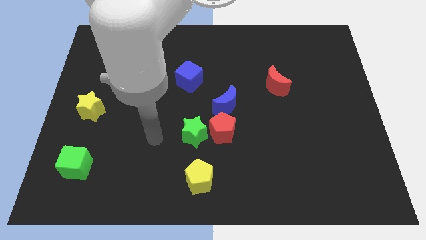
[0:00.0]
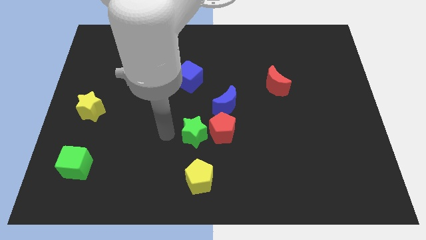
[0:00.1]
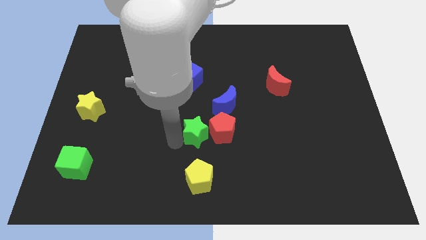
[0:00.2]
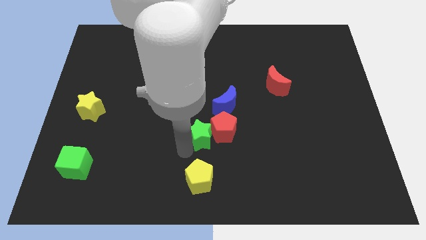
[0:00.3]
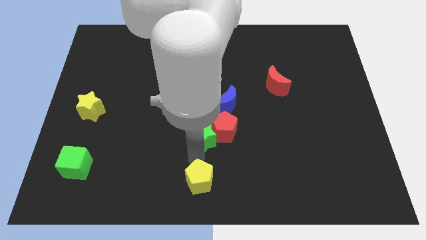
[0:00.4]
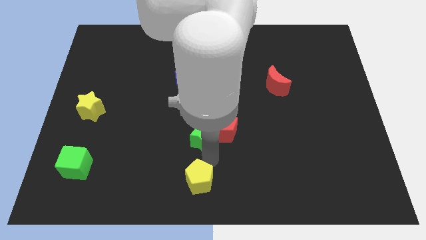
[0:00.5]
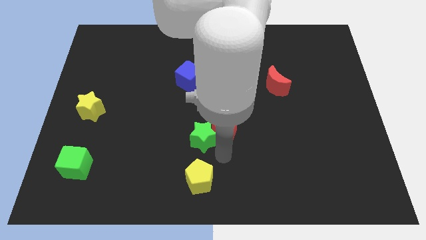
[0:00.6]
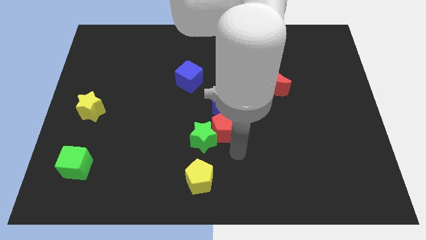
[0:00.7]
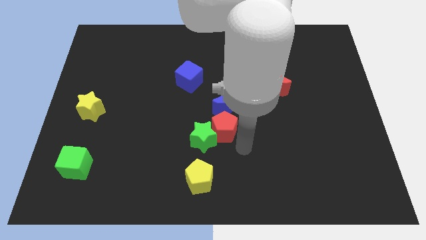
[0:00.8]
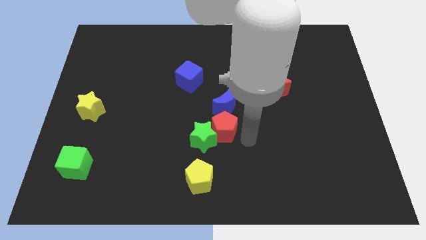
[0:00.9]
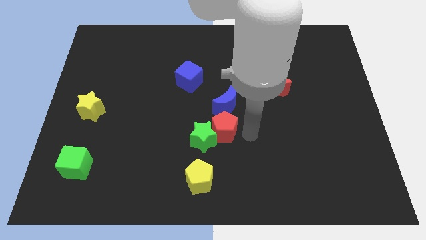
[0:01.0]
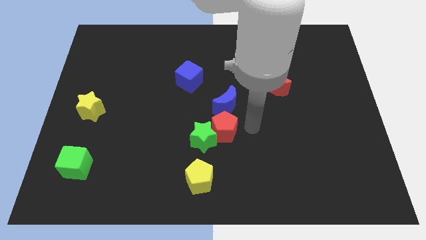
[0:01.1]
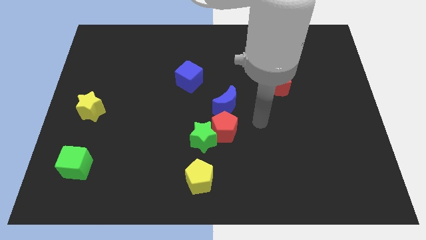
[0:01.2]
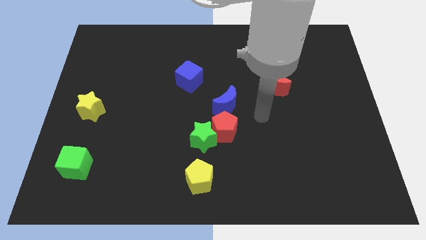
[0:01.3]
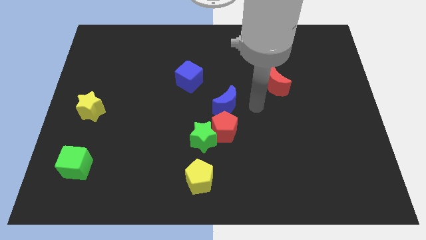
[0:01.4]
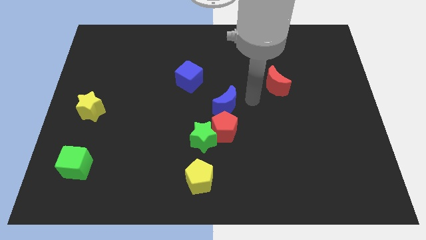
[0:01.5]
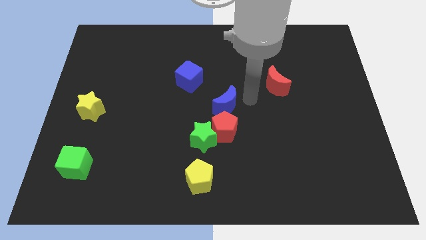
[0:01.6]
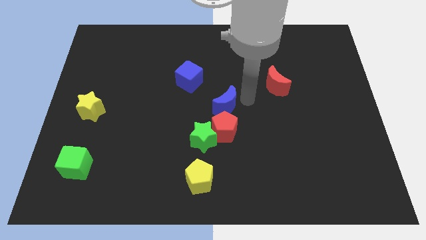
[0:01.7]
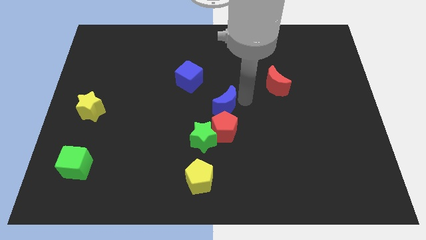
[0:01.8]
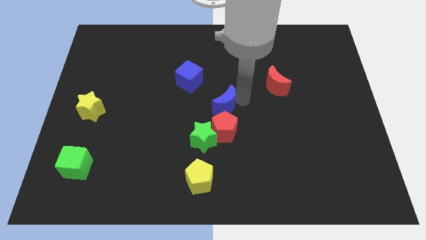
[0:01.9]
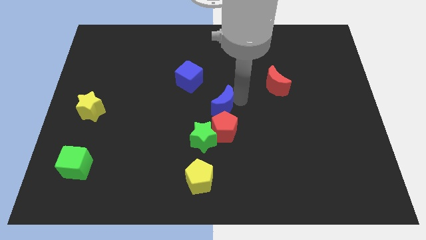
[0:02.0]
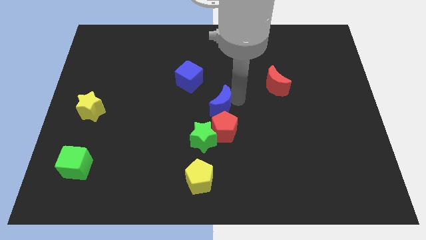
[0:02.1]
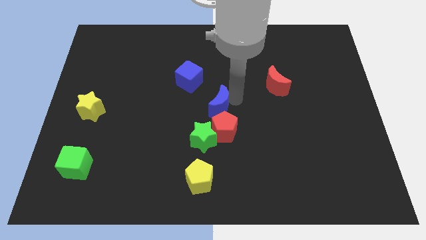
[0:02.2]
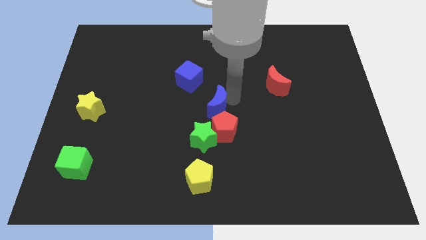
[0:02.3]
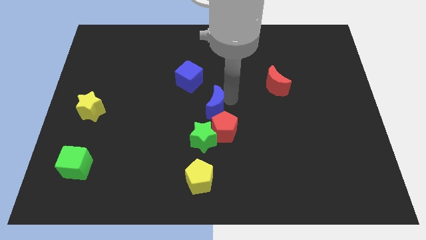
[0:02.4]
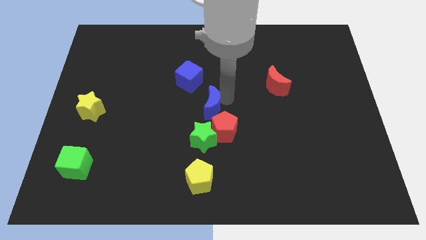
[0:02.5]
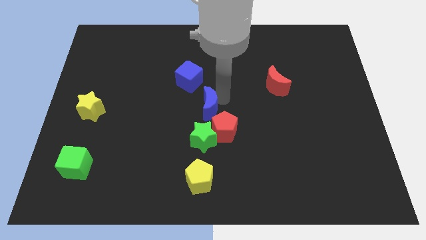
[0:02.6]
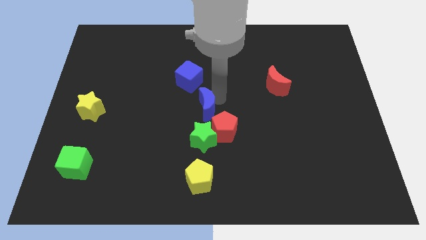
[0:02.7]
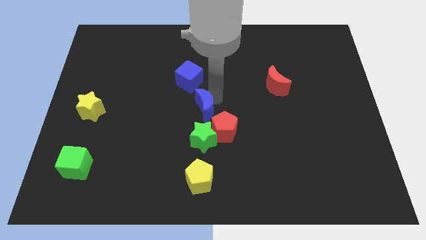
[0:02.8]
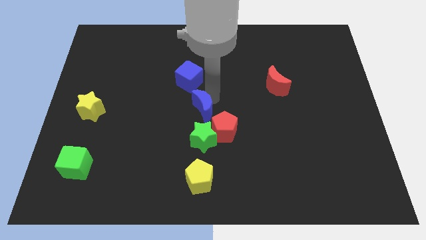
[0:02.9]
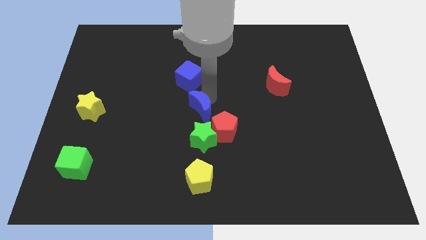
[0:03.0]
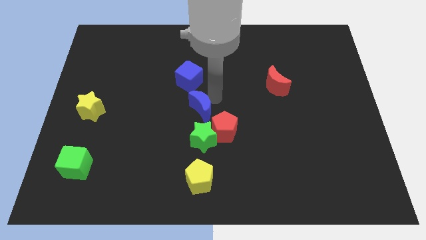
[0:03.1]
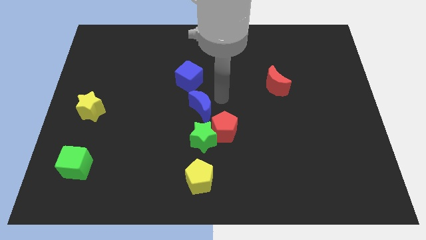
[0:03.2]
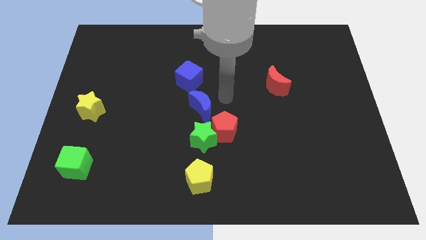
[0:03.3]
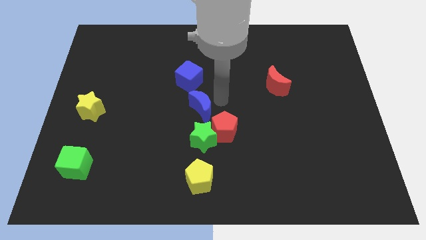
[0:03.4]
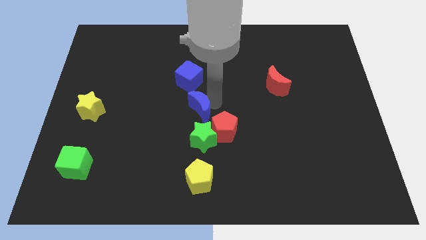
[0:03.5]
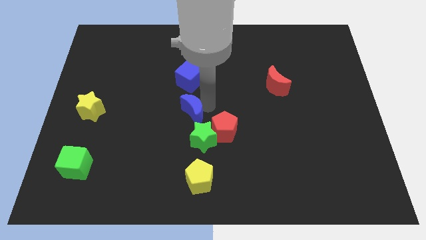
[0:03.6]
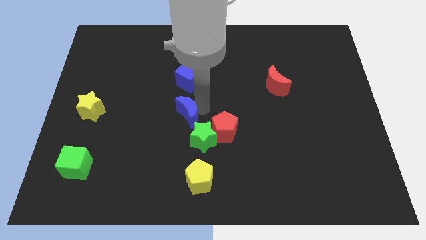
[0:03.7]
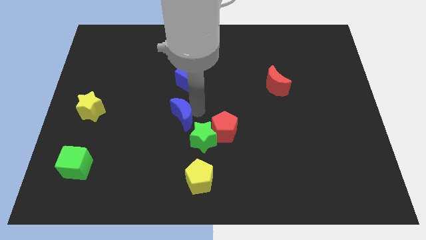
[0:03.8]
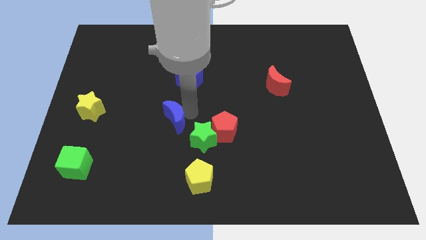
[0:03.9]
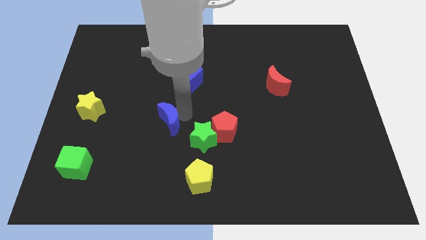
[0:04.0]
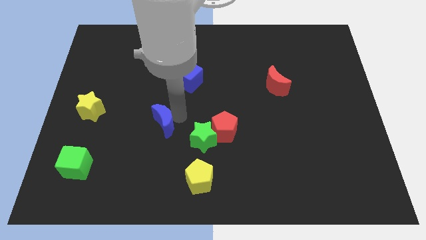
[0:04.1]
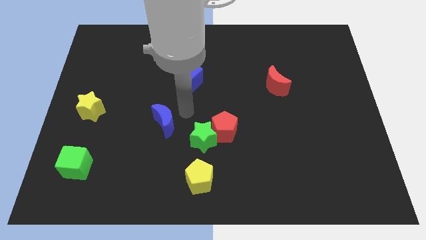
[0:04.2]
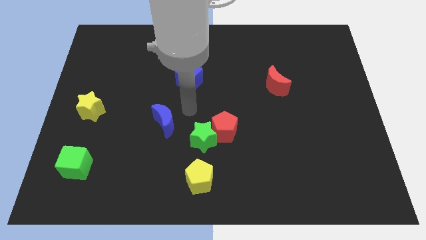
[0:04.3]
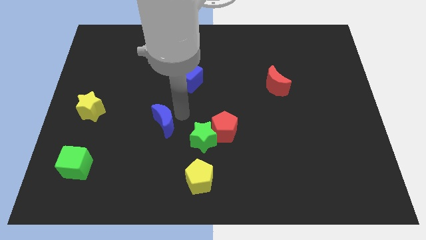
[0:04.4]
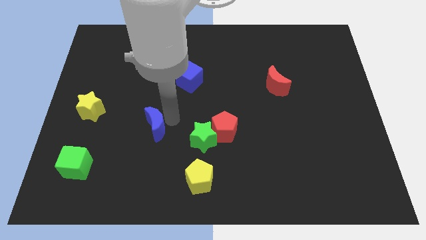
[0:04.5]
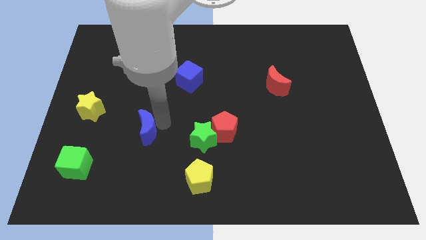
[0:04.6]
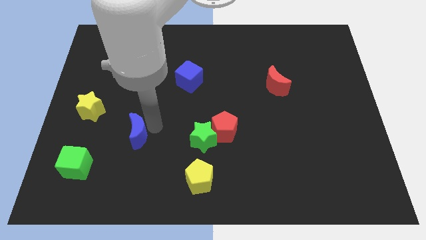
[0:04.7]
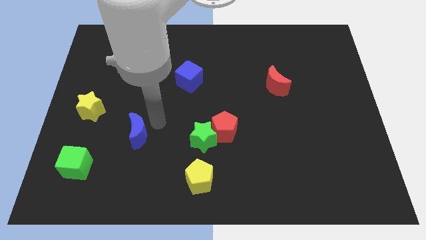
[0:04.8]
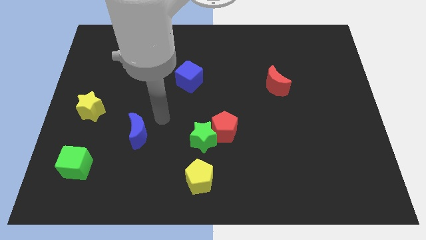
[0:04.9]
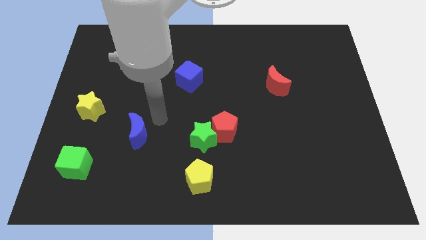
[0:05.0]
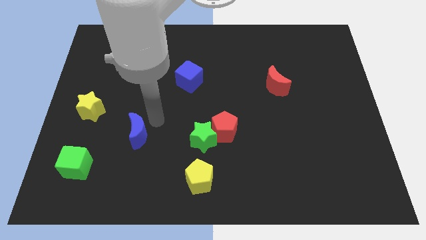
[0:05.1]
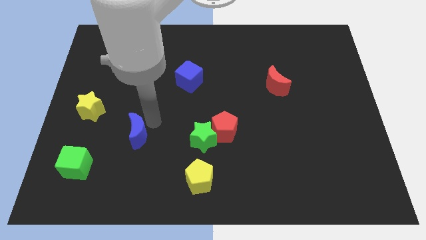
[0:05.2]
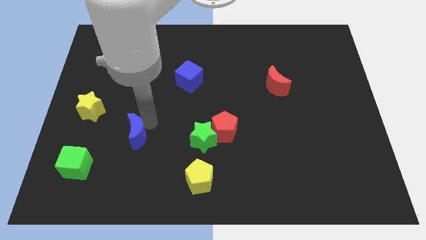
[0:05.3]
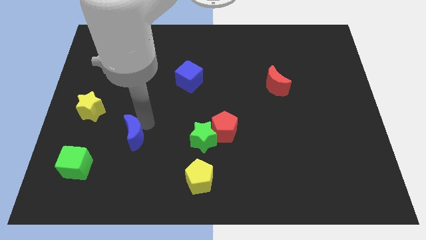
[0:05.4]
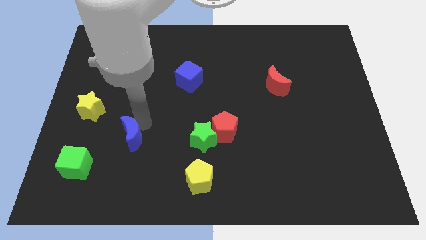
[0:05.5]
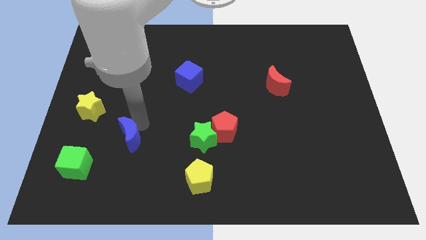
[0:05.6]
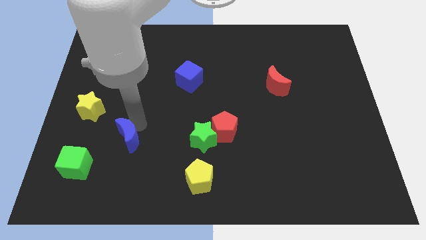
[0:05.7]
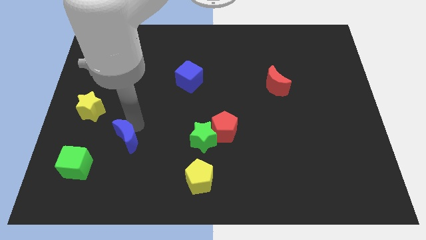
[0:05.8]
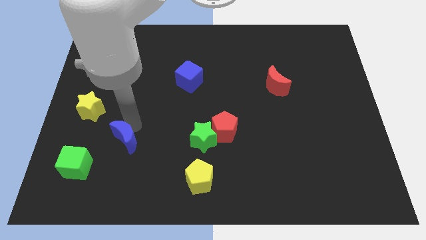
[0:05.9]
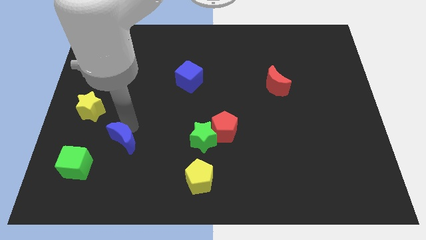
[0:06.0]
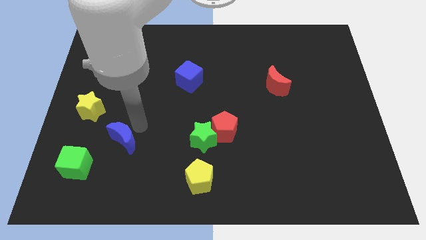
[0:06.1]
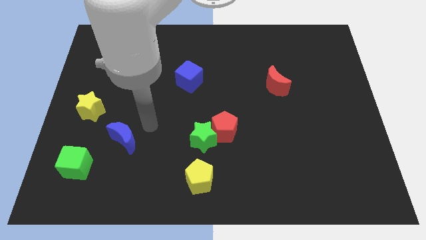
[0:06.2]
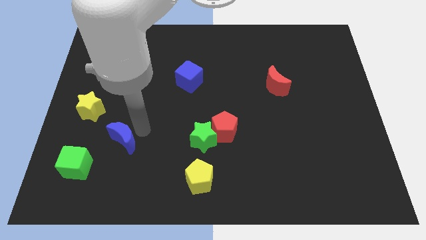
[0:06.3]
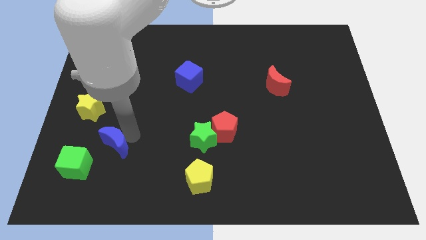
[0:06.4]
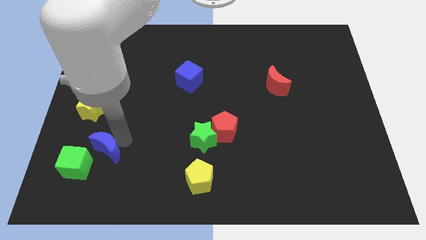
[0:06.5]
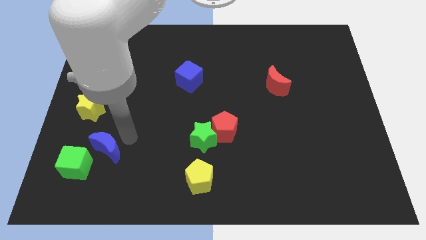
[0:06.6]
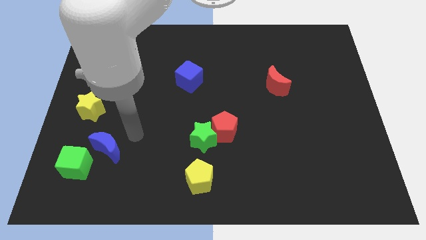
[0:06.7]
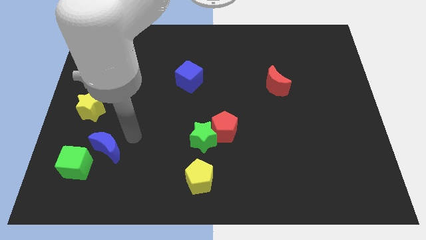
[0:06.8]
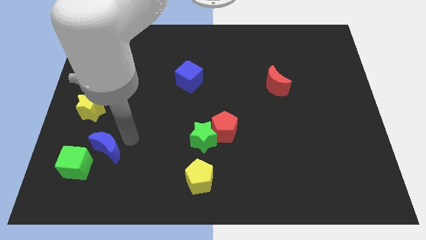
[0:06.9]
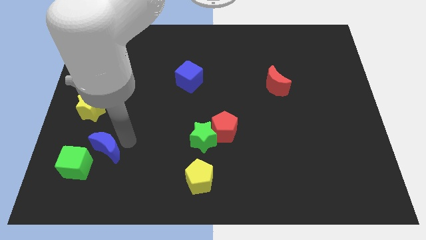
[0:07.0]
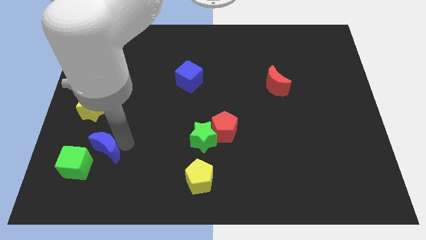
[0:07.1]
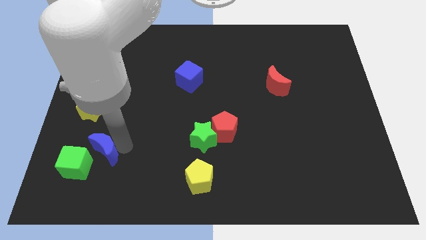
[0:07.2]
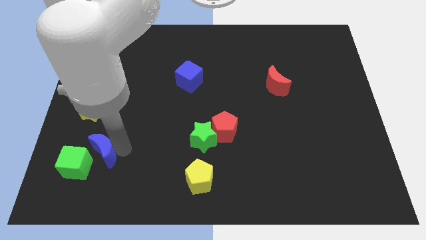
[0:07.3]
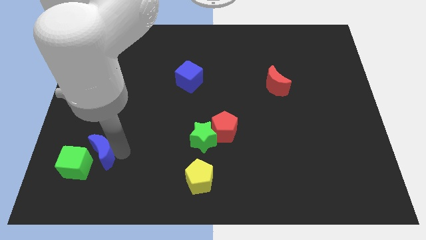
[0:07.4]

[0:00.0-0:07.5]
push the blue moon to the green cube
